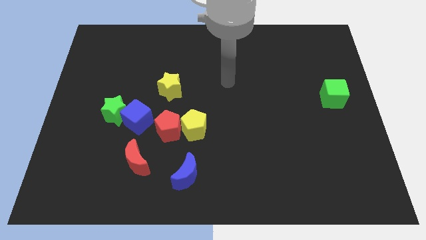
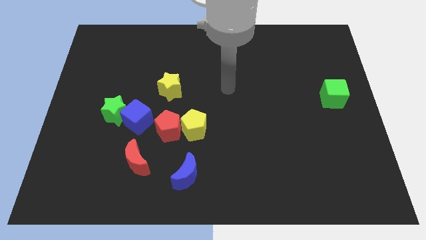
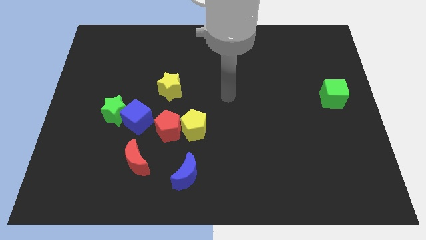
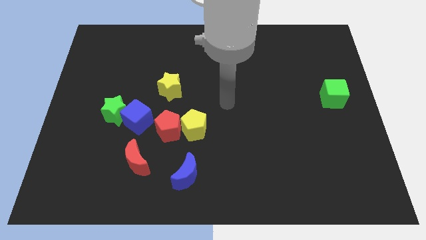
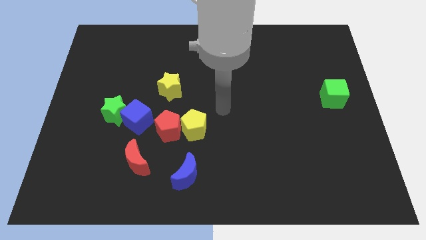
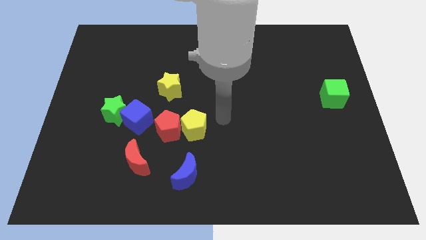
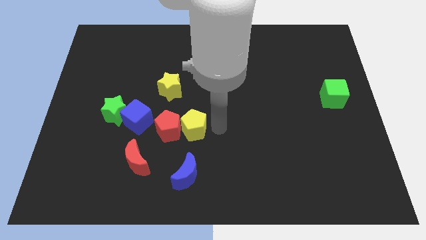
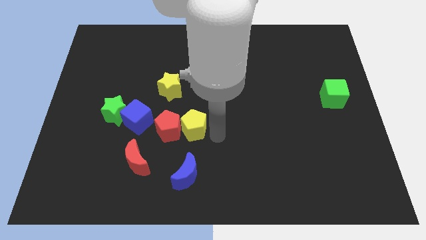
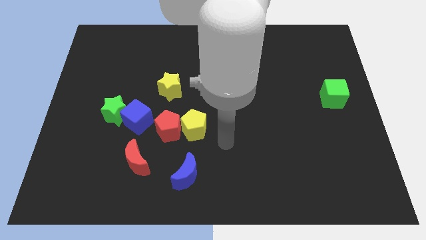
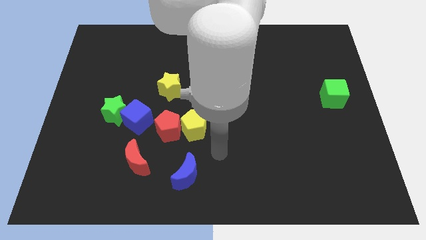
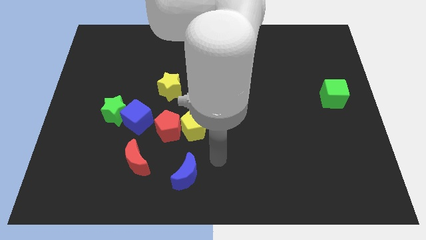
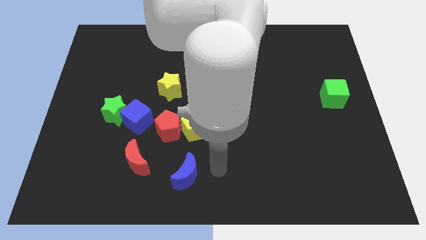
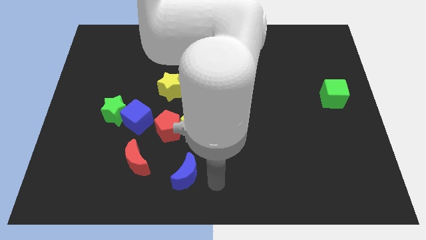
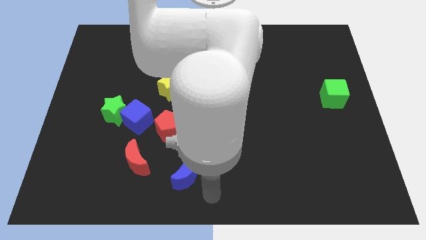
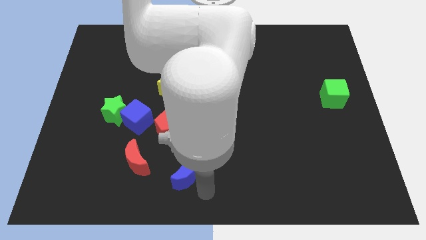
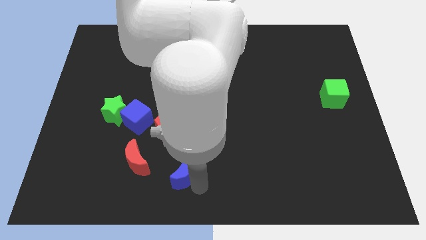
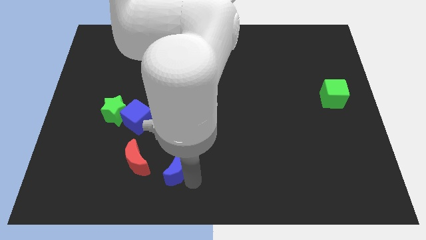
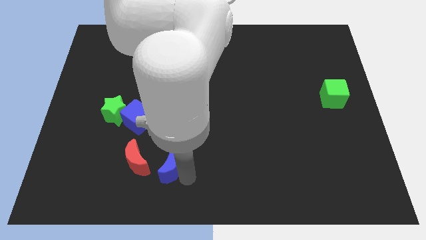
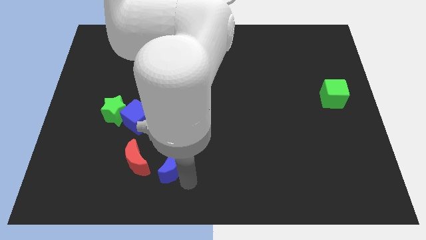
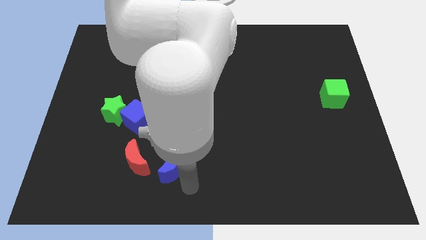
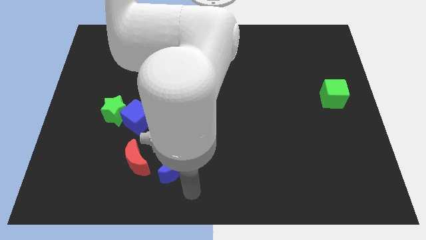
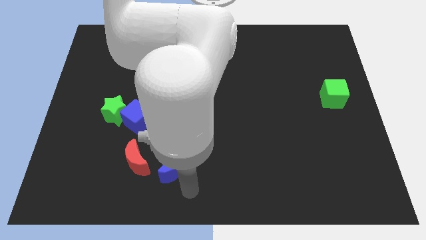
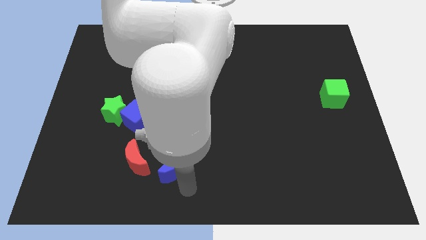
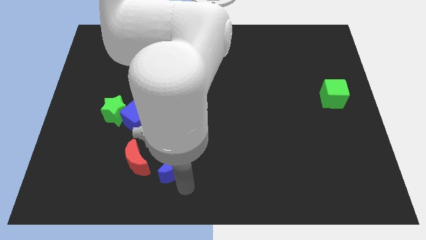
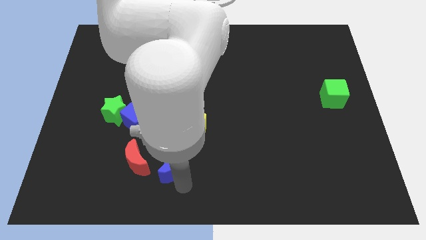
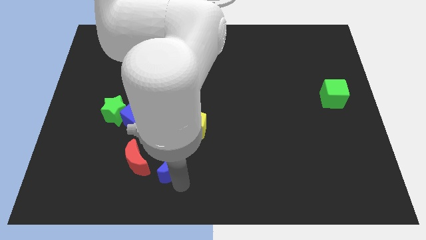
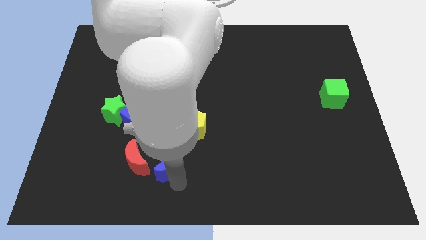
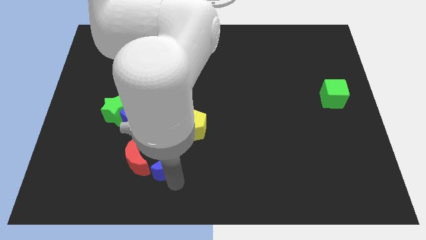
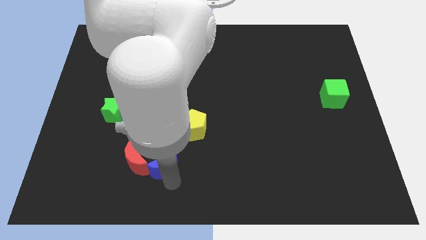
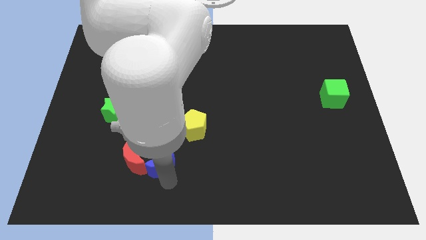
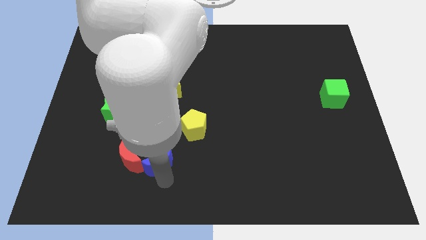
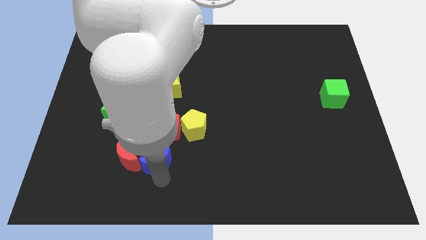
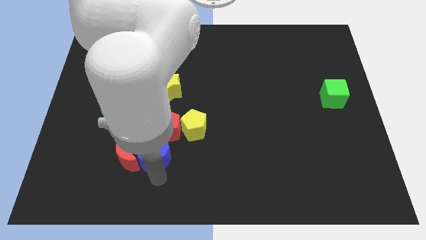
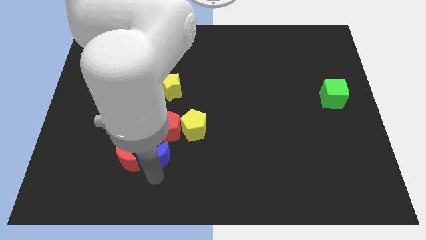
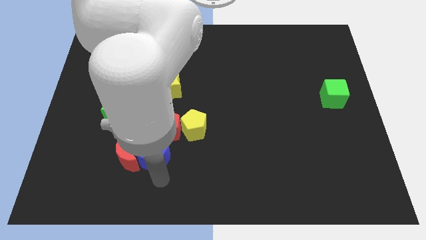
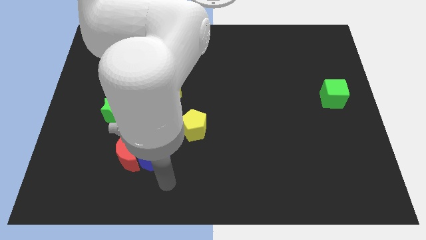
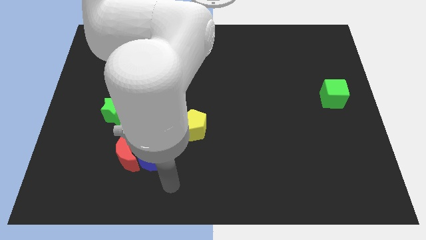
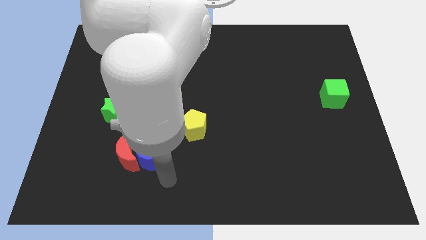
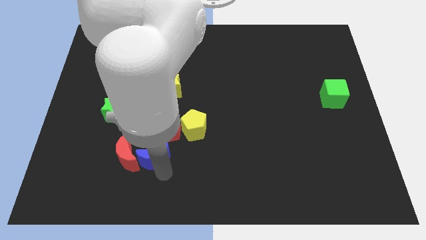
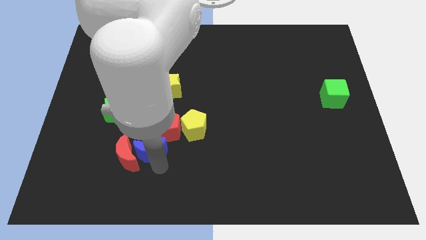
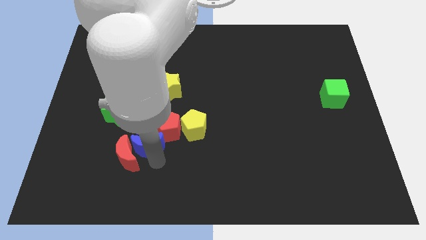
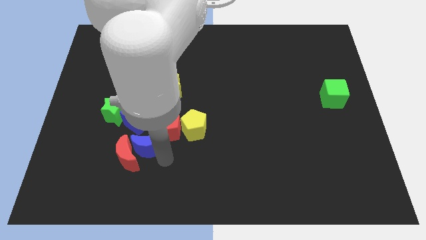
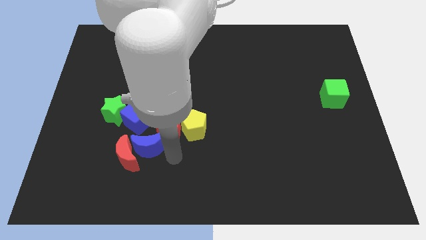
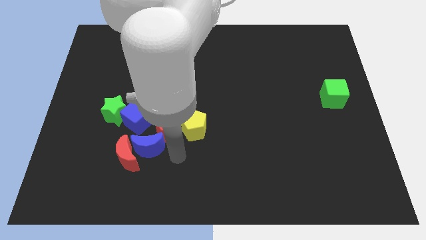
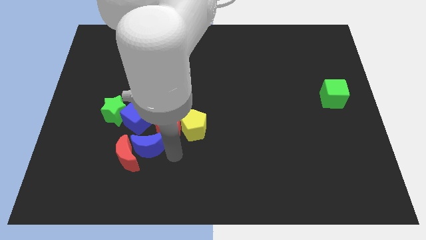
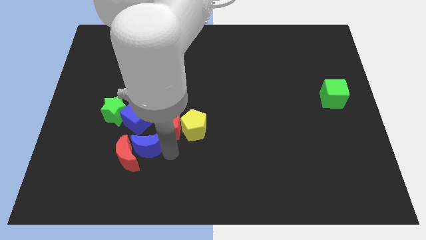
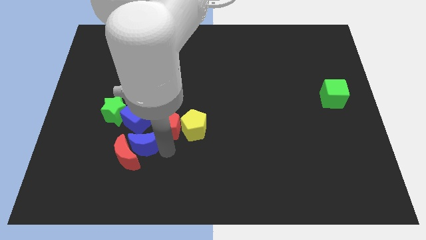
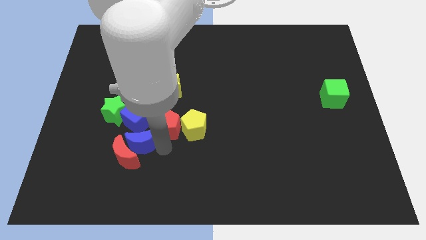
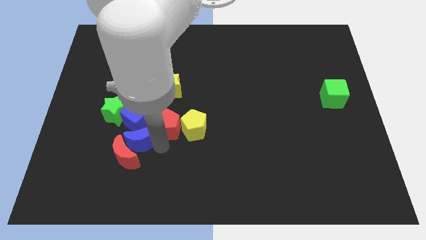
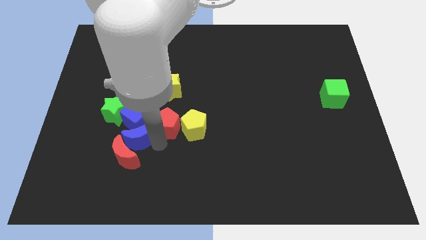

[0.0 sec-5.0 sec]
put the blue moon to the bottom left side of the blue cube

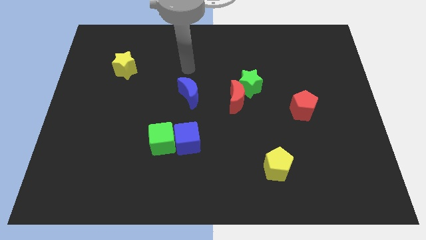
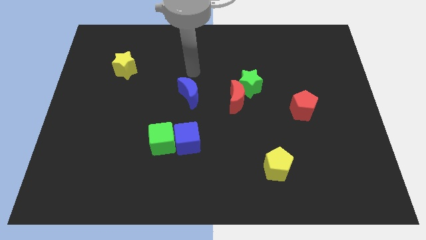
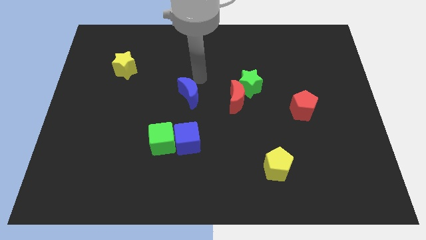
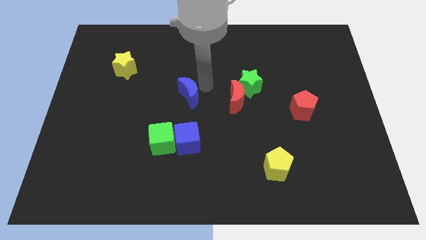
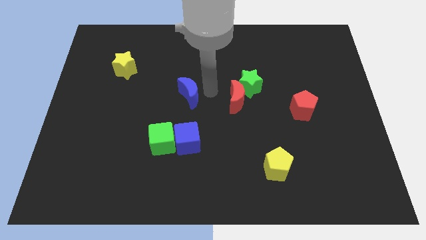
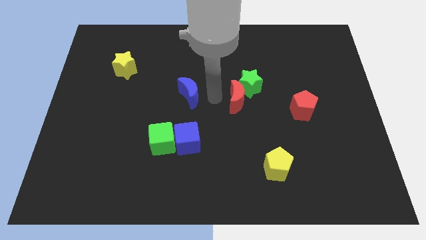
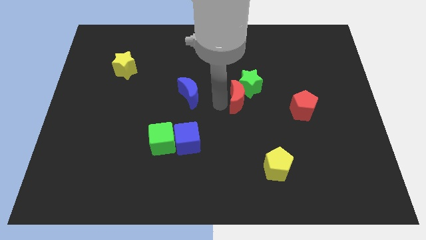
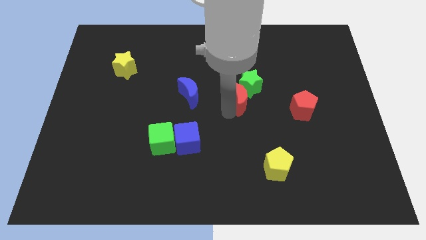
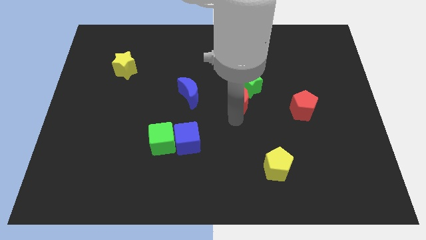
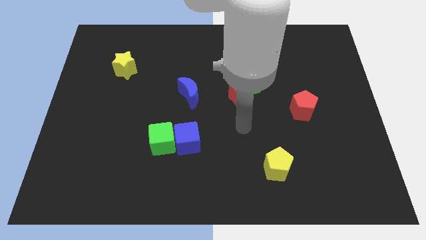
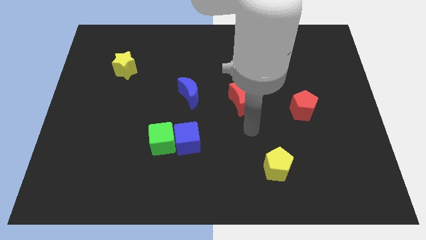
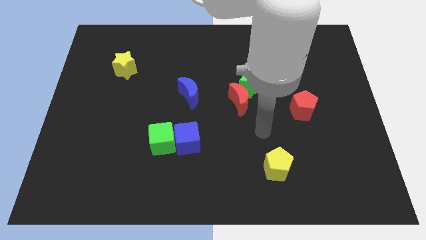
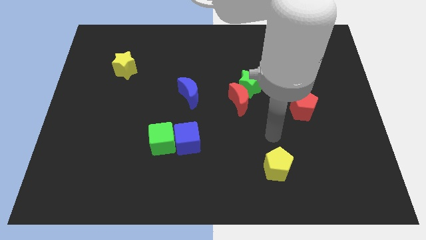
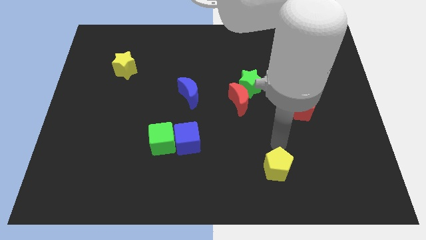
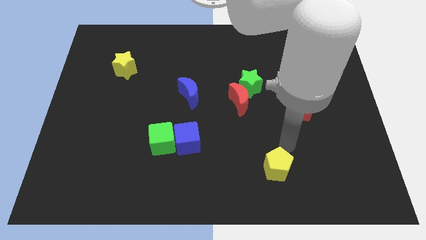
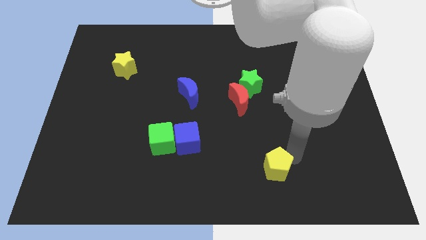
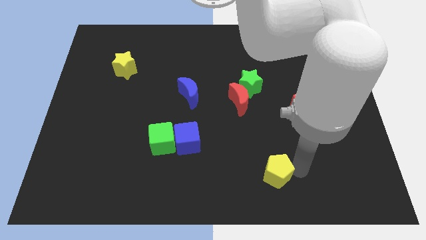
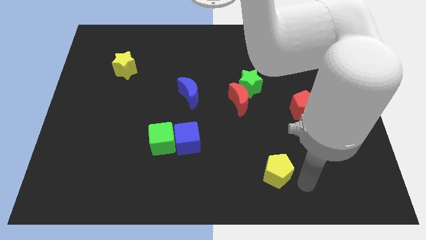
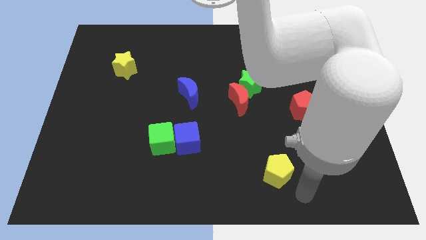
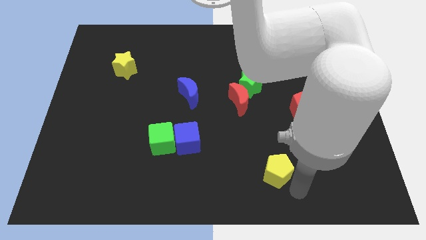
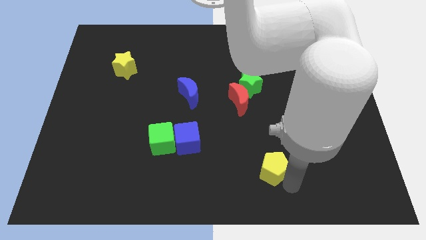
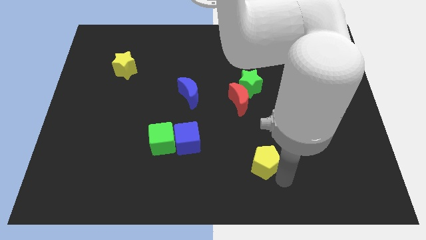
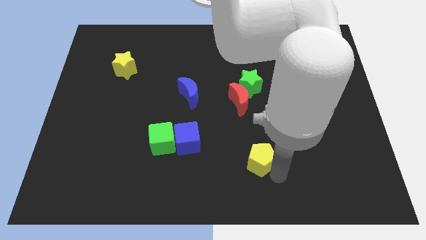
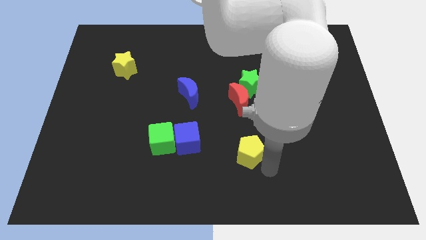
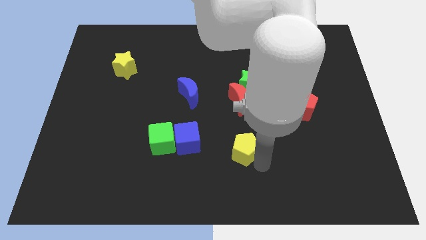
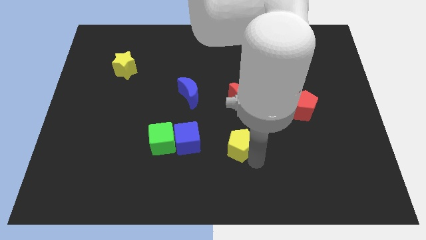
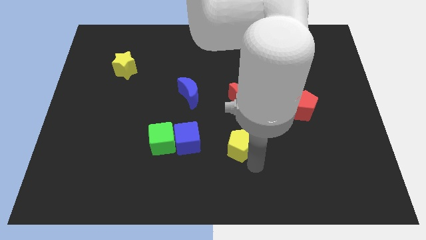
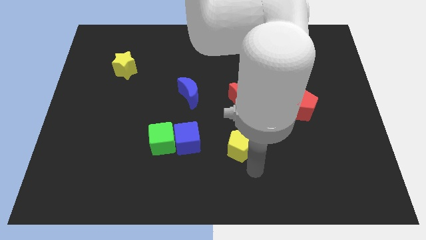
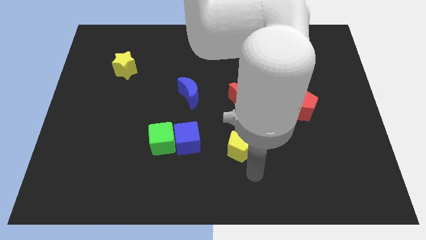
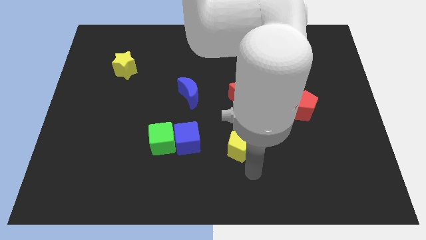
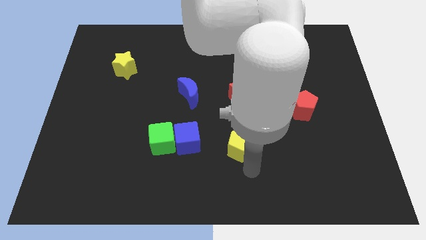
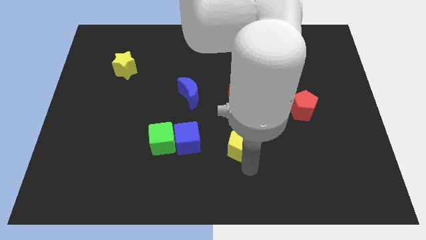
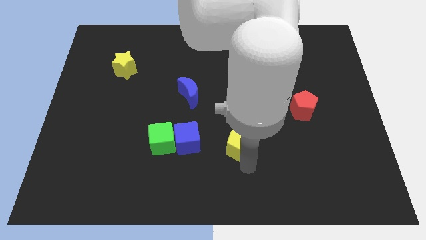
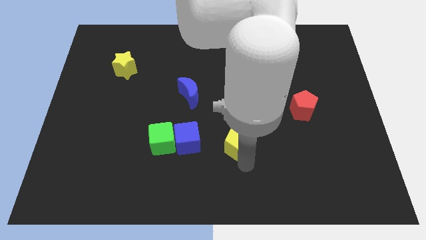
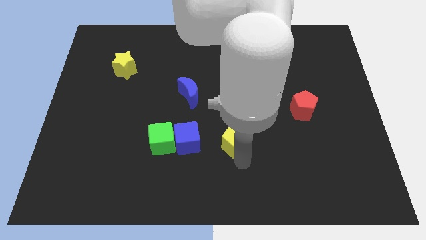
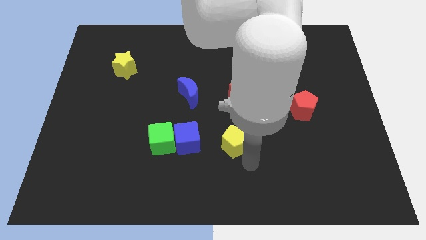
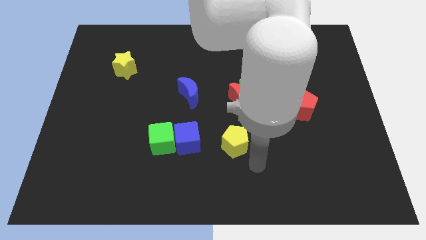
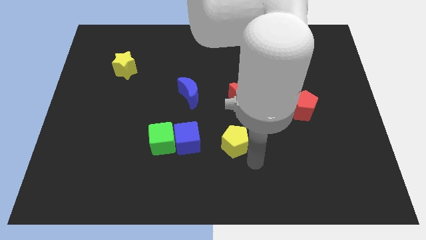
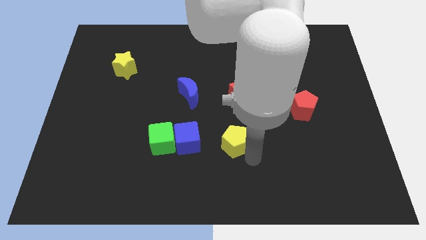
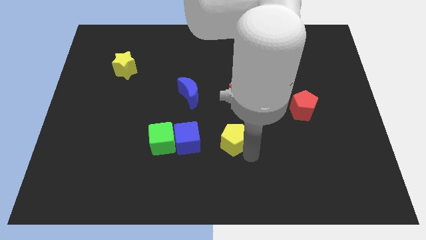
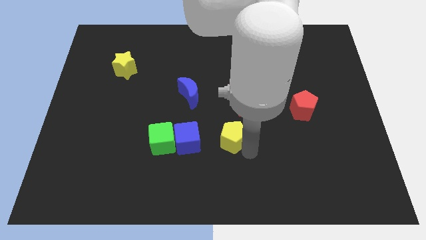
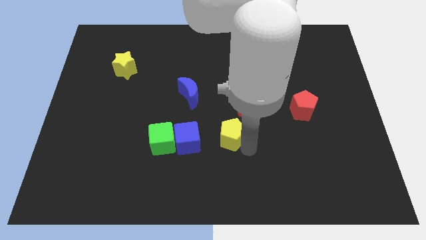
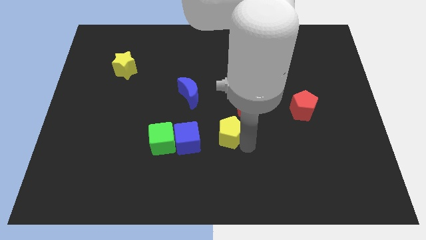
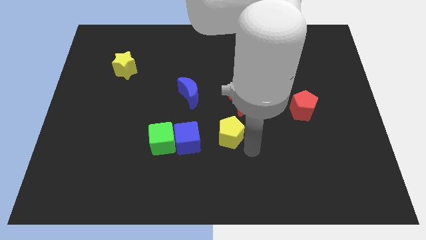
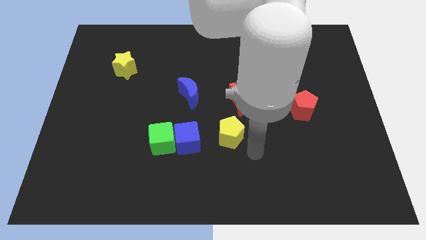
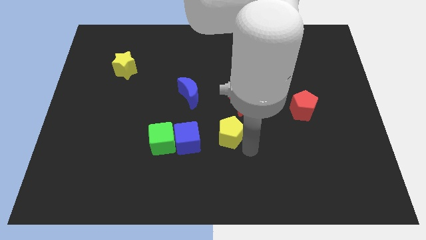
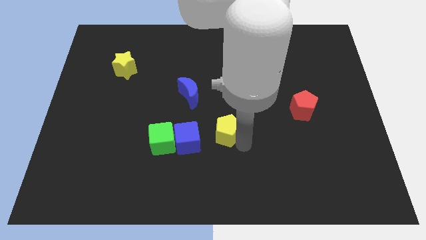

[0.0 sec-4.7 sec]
slide the yellow pentagon to the top right side of the blue cube
